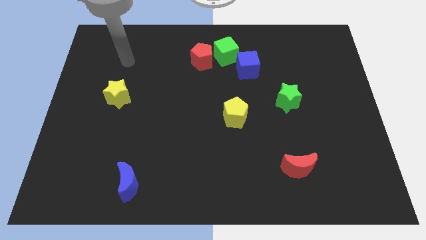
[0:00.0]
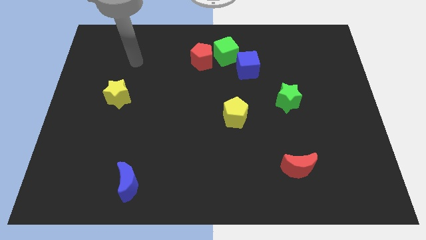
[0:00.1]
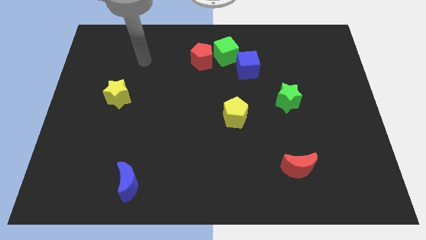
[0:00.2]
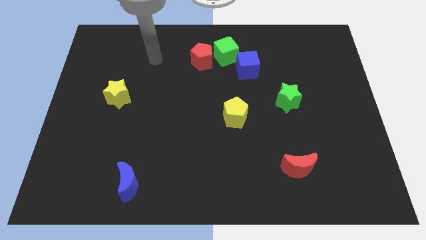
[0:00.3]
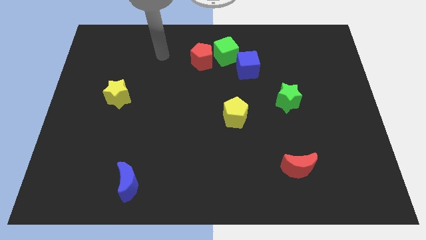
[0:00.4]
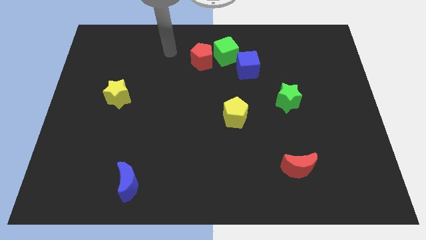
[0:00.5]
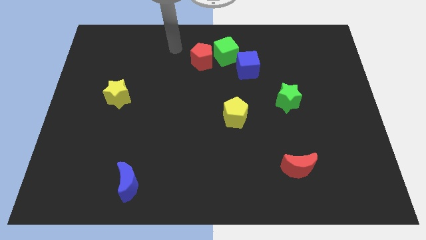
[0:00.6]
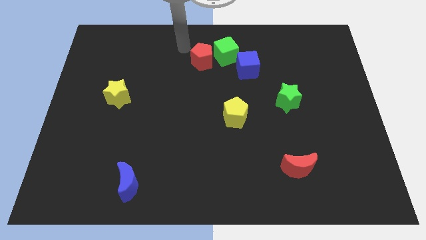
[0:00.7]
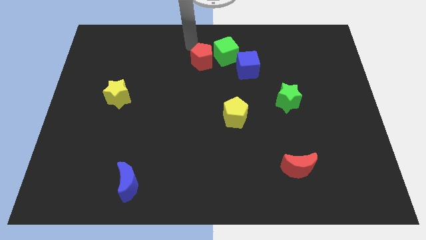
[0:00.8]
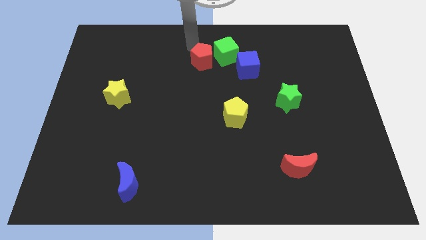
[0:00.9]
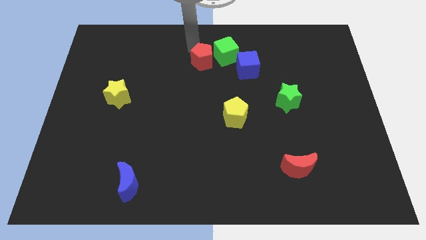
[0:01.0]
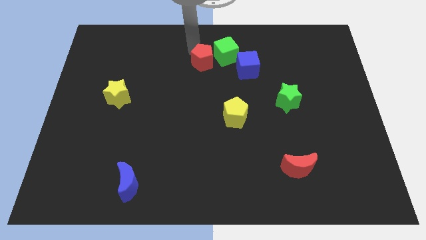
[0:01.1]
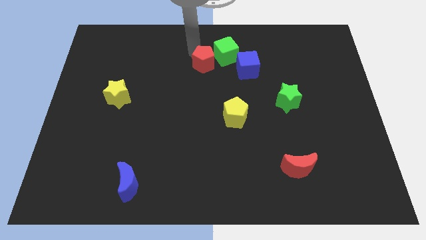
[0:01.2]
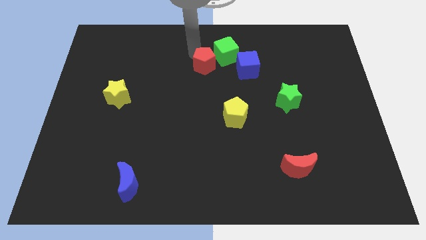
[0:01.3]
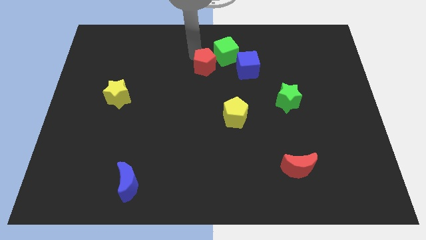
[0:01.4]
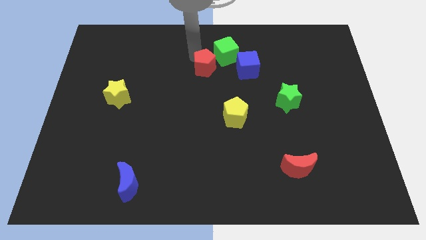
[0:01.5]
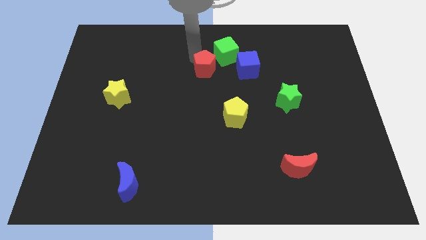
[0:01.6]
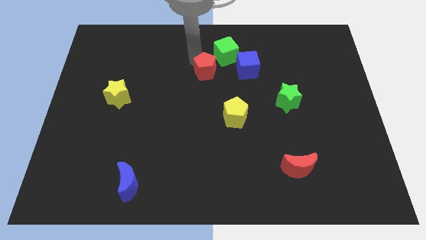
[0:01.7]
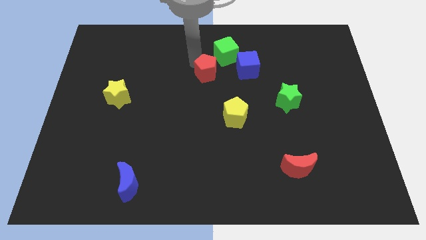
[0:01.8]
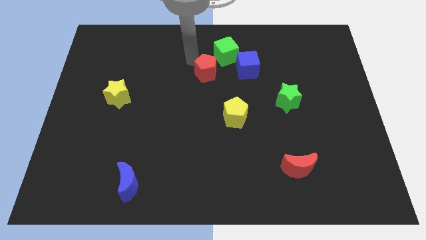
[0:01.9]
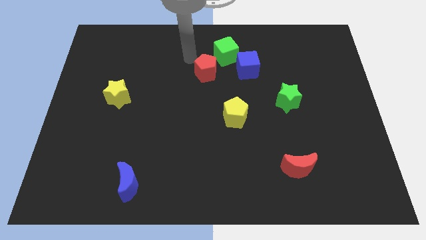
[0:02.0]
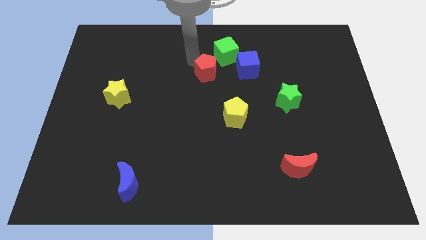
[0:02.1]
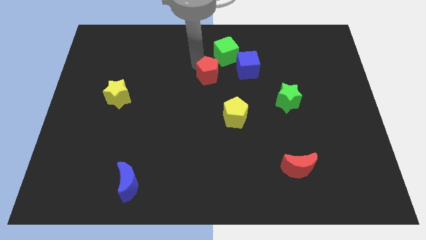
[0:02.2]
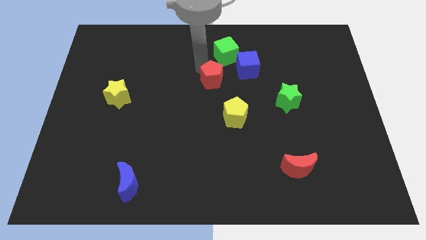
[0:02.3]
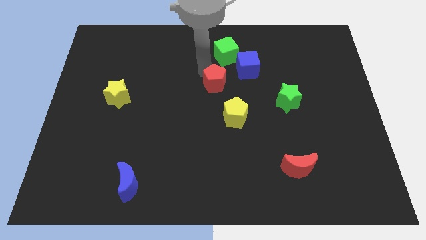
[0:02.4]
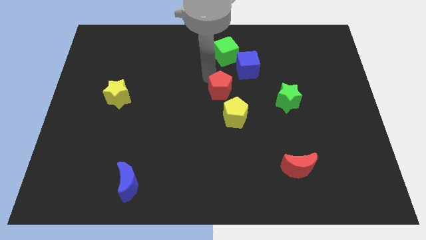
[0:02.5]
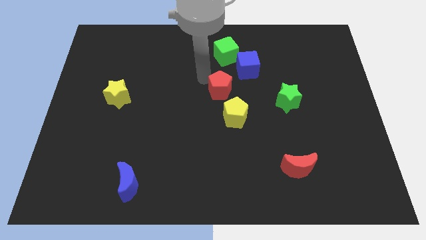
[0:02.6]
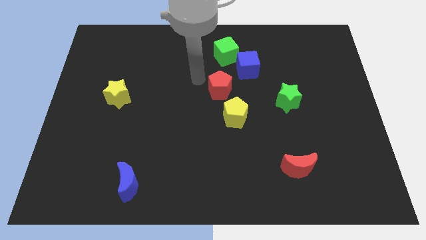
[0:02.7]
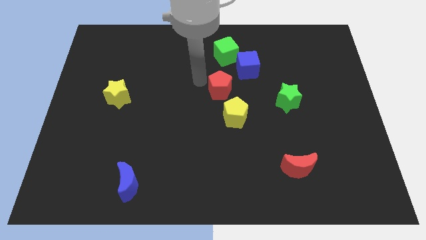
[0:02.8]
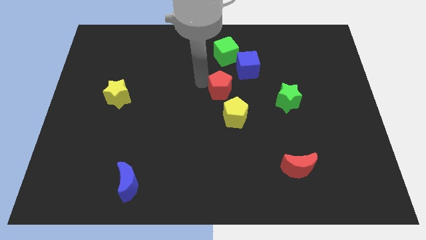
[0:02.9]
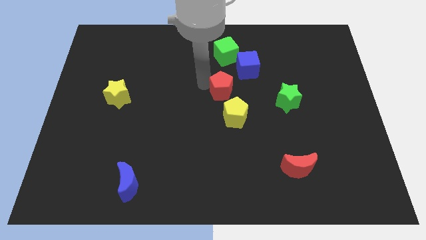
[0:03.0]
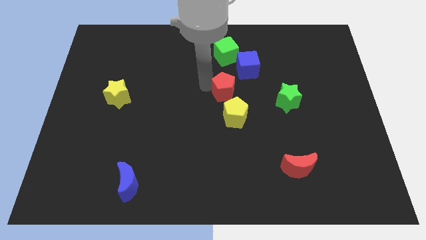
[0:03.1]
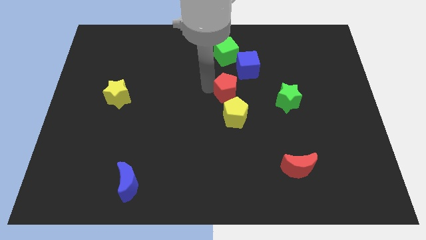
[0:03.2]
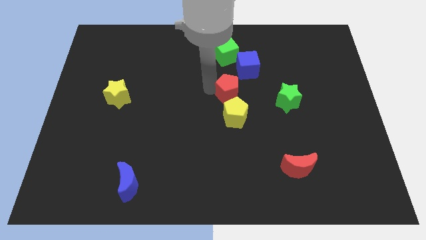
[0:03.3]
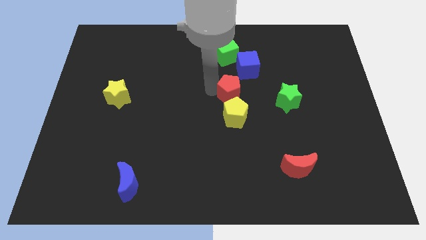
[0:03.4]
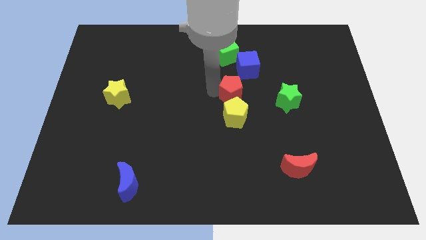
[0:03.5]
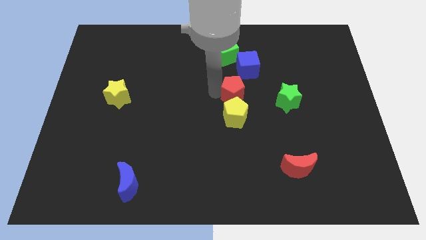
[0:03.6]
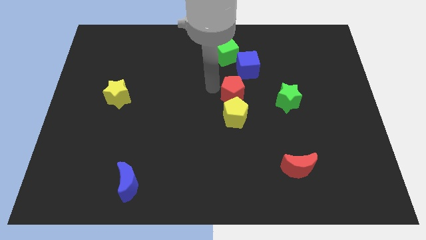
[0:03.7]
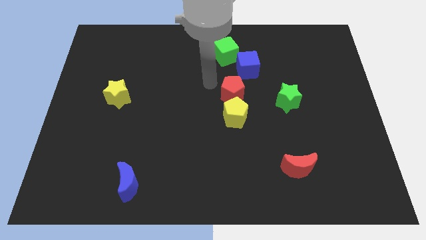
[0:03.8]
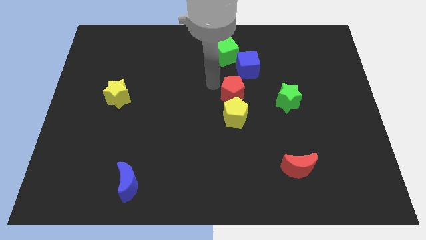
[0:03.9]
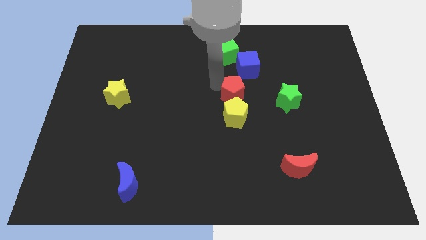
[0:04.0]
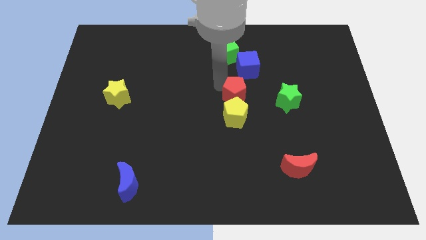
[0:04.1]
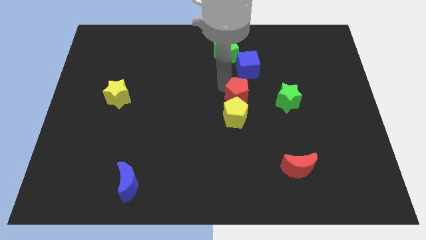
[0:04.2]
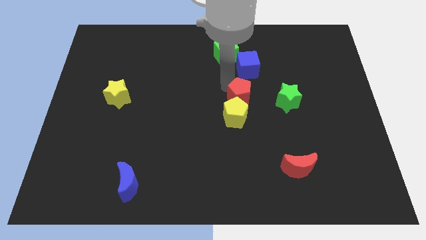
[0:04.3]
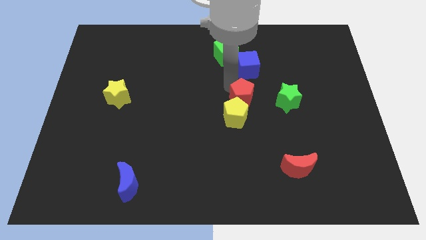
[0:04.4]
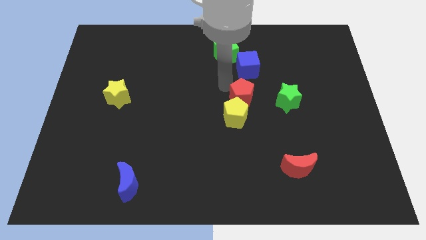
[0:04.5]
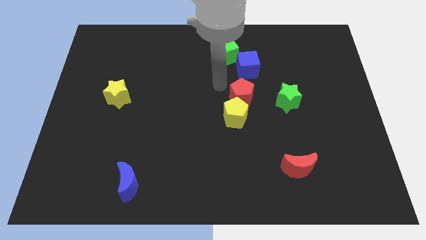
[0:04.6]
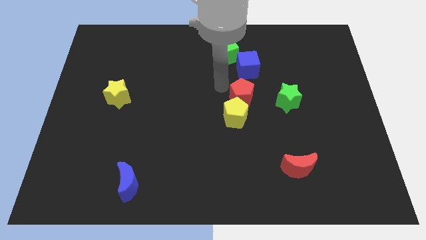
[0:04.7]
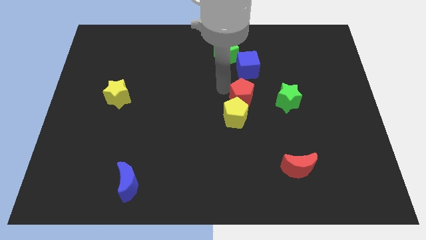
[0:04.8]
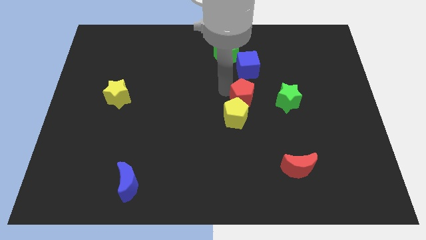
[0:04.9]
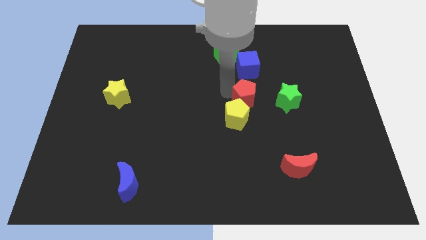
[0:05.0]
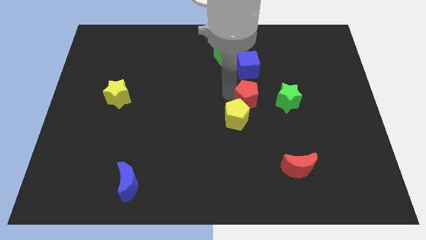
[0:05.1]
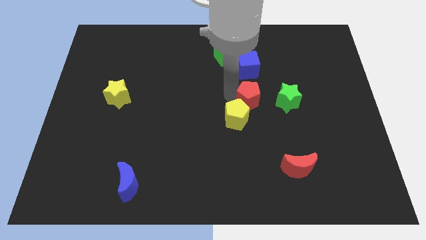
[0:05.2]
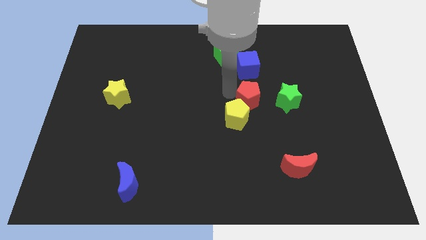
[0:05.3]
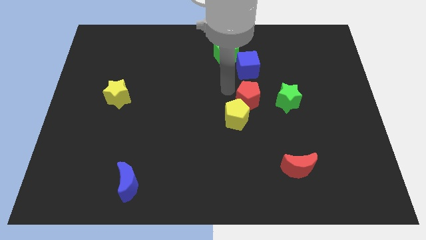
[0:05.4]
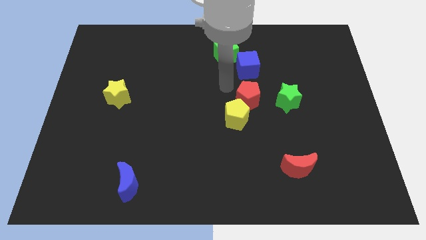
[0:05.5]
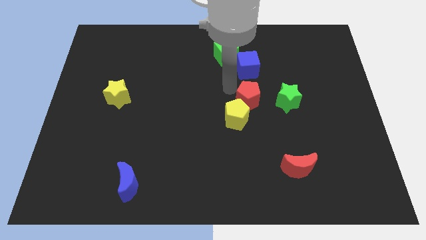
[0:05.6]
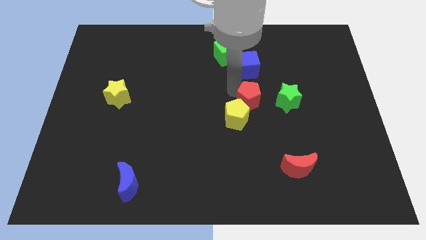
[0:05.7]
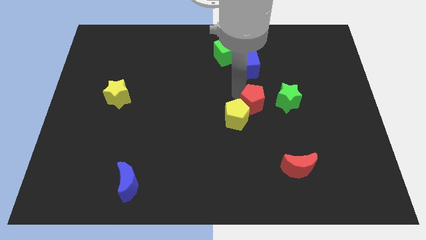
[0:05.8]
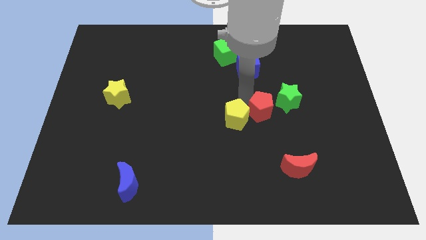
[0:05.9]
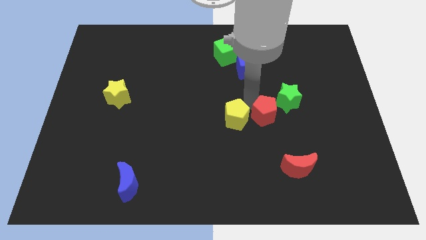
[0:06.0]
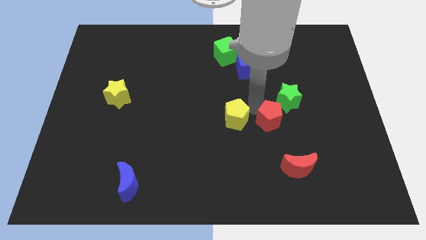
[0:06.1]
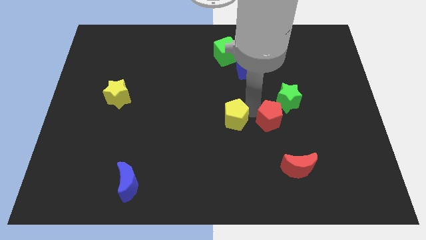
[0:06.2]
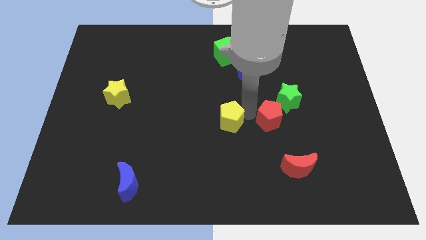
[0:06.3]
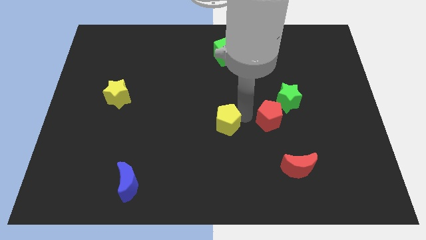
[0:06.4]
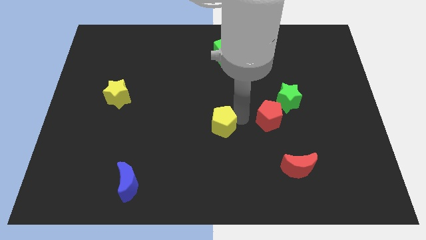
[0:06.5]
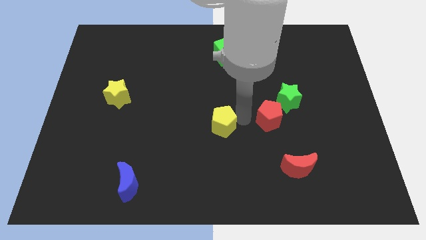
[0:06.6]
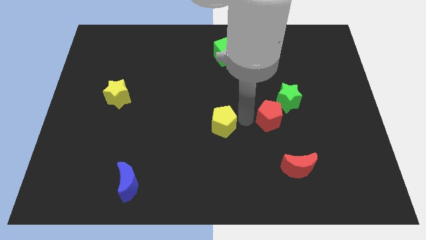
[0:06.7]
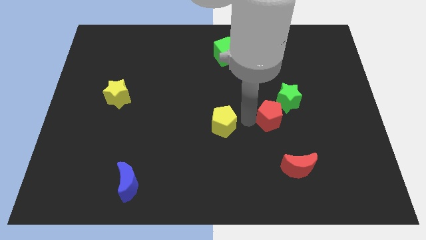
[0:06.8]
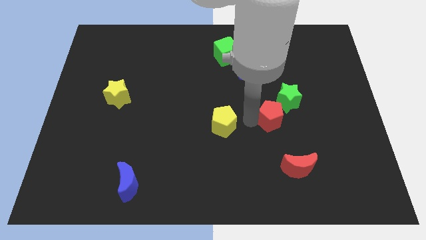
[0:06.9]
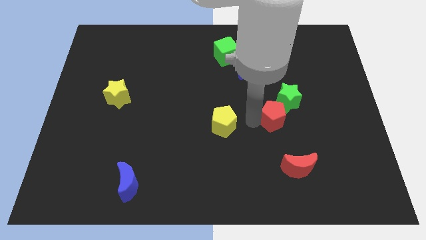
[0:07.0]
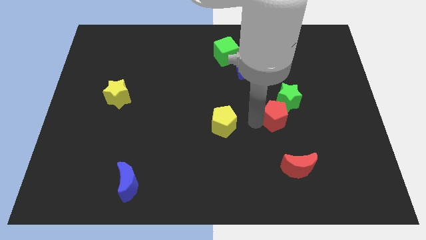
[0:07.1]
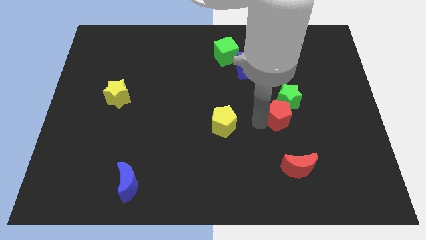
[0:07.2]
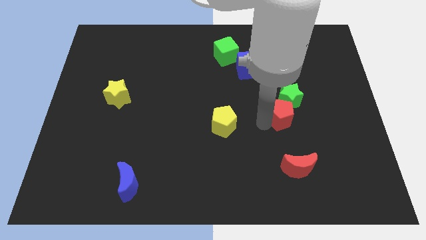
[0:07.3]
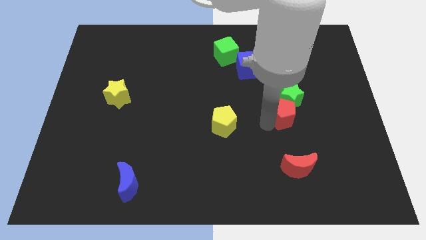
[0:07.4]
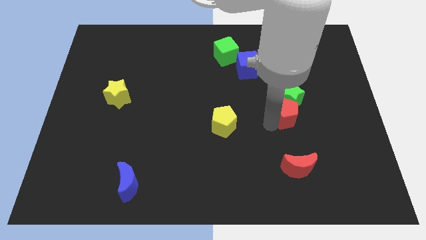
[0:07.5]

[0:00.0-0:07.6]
move the red pentagon diagonally down and to the right of the green star
